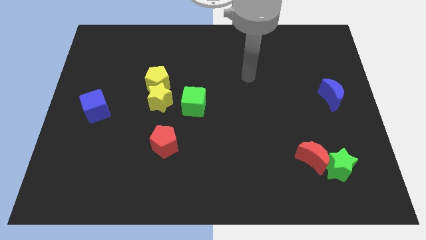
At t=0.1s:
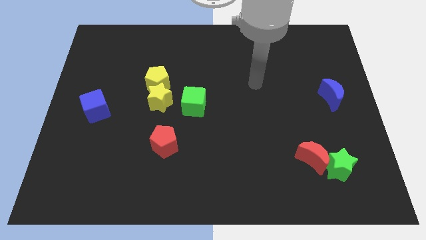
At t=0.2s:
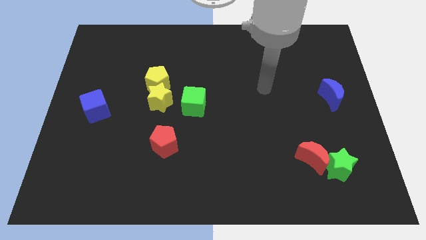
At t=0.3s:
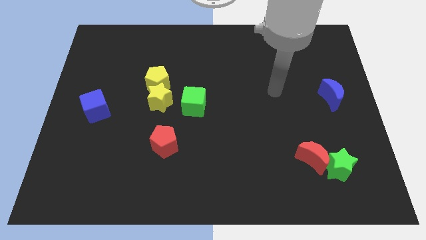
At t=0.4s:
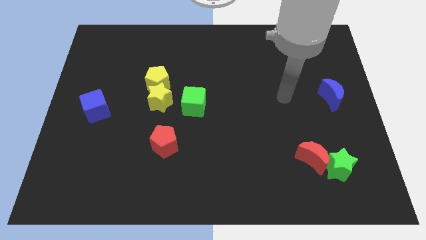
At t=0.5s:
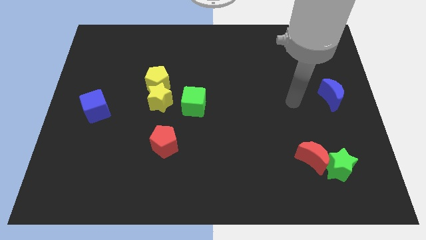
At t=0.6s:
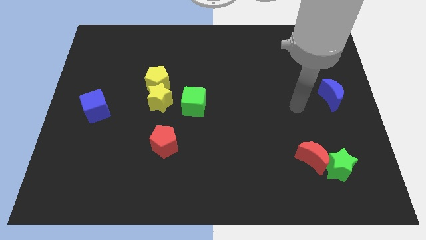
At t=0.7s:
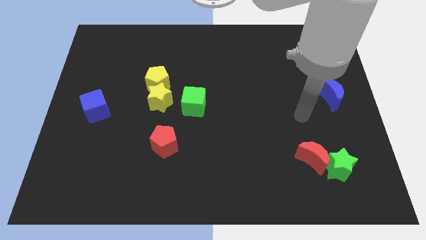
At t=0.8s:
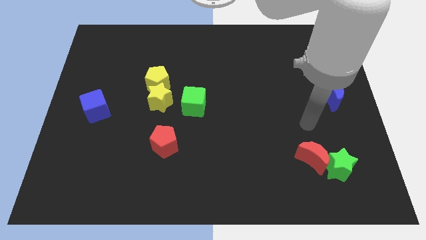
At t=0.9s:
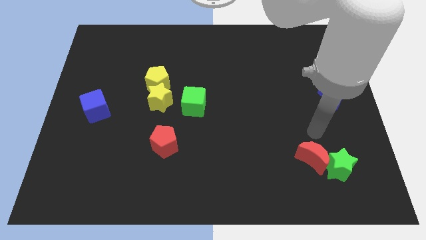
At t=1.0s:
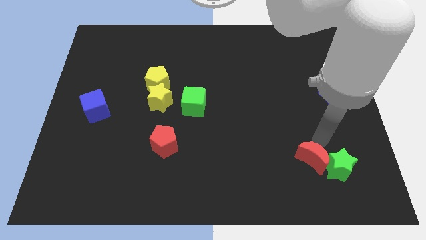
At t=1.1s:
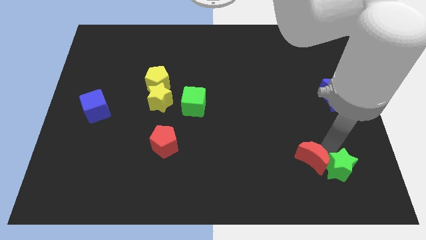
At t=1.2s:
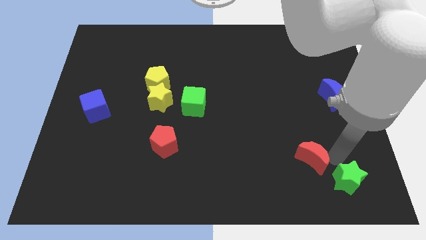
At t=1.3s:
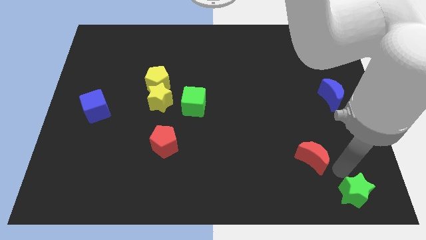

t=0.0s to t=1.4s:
pull the red moon apart from the green star

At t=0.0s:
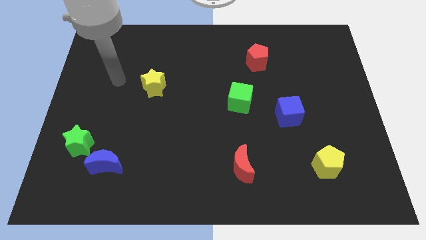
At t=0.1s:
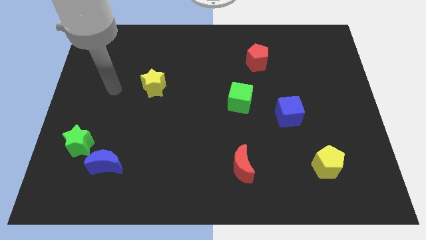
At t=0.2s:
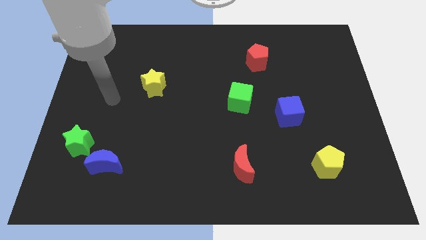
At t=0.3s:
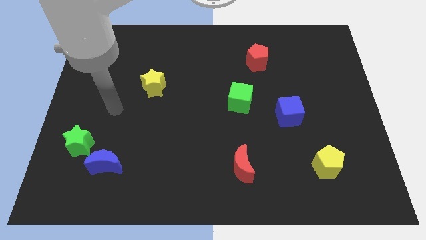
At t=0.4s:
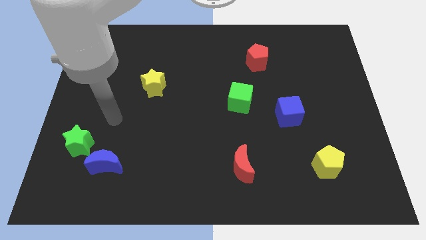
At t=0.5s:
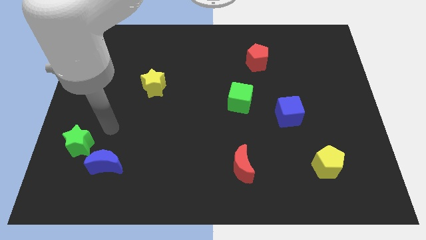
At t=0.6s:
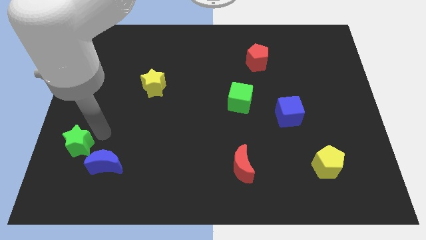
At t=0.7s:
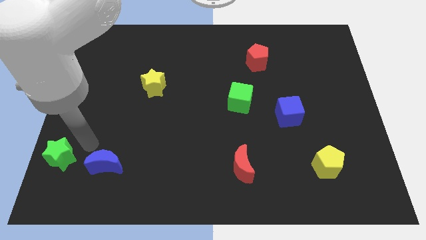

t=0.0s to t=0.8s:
separate the blue moon from the green star

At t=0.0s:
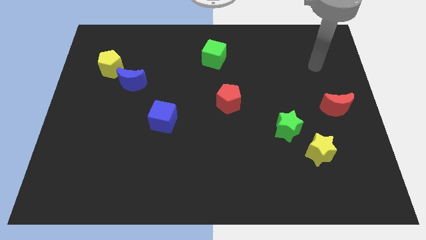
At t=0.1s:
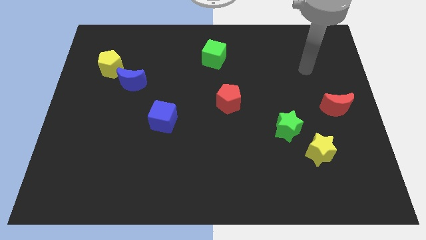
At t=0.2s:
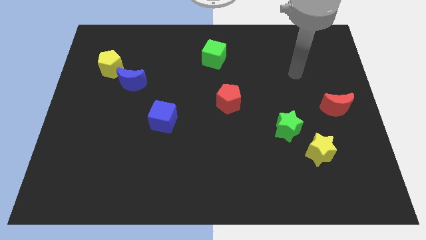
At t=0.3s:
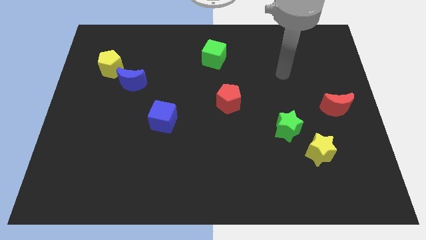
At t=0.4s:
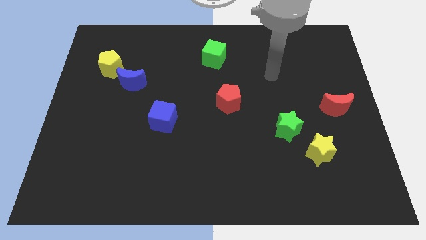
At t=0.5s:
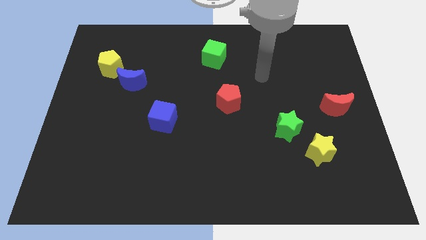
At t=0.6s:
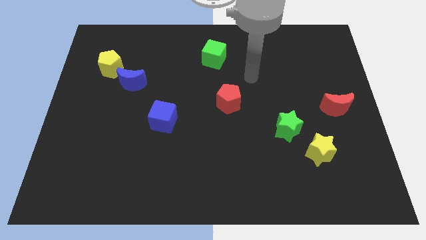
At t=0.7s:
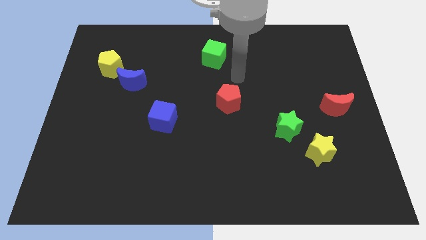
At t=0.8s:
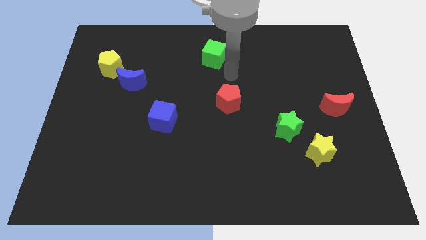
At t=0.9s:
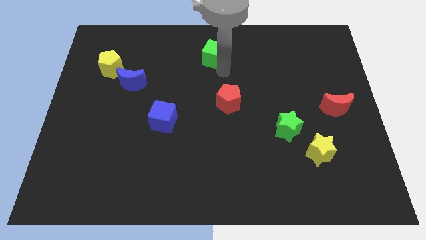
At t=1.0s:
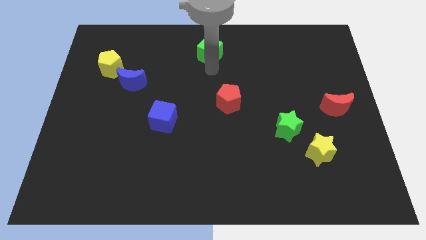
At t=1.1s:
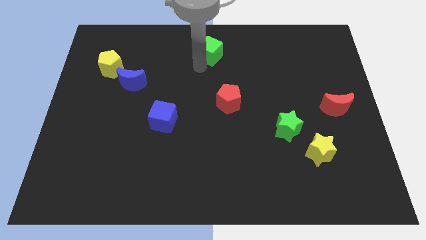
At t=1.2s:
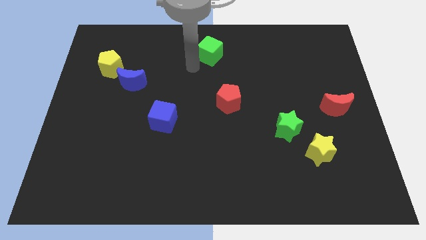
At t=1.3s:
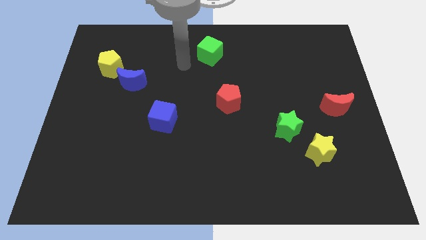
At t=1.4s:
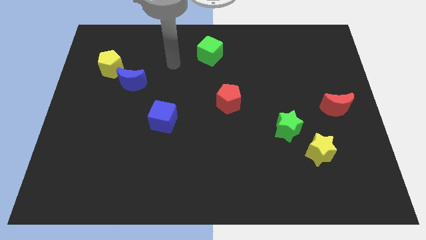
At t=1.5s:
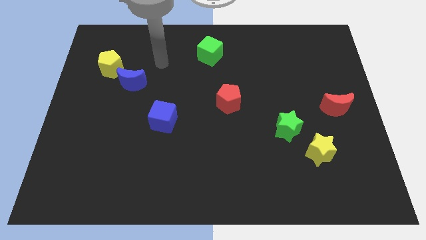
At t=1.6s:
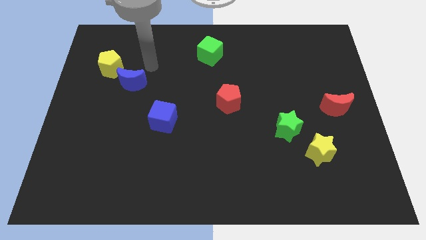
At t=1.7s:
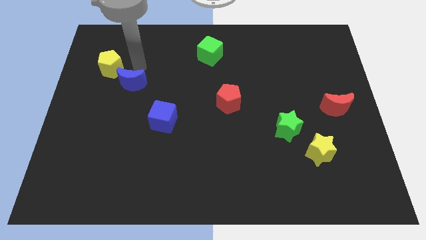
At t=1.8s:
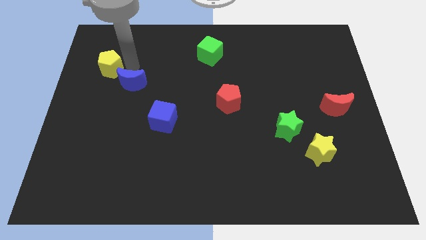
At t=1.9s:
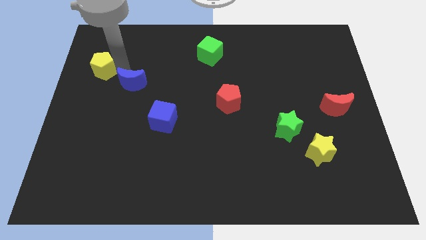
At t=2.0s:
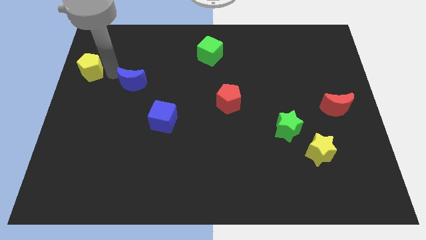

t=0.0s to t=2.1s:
pull the blue moon apart from the yellow pentagon

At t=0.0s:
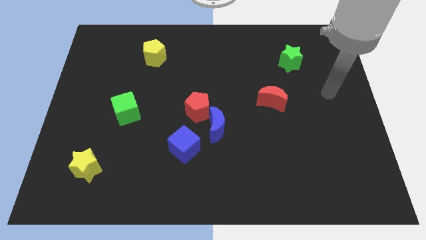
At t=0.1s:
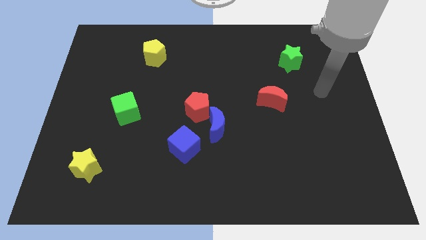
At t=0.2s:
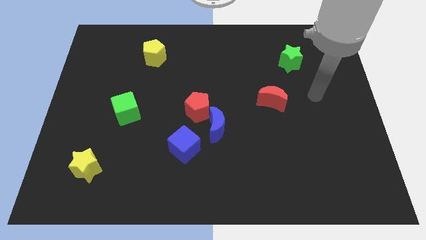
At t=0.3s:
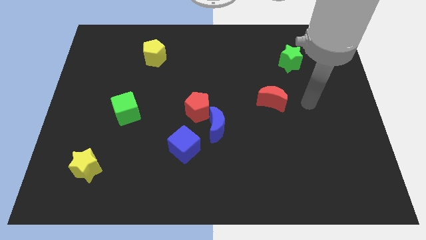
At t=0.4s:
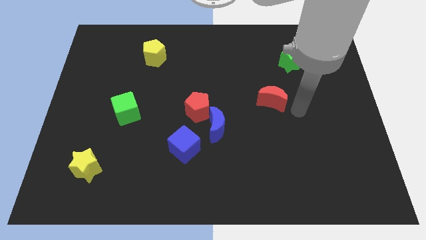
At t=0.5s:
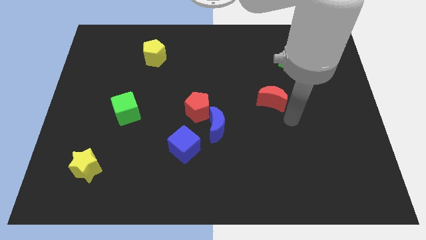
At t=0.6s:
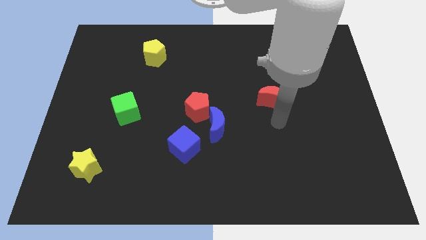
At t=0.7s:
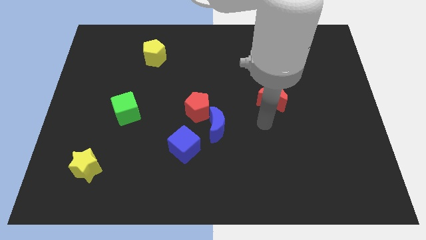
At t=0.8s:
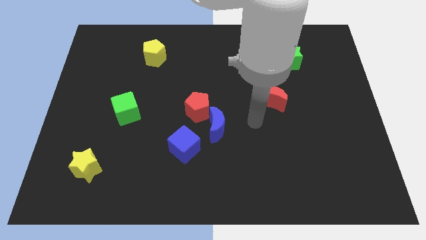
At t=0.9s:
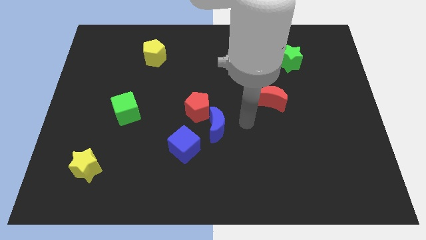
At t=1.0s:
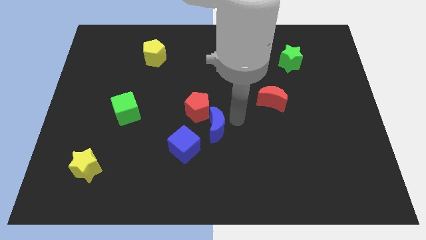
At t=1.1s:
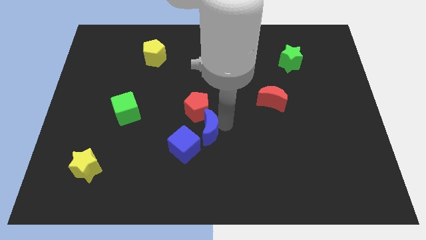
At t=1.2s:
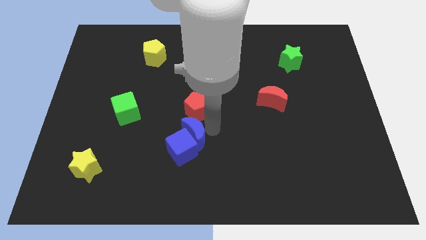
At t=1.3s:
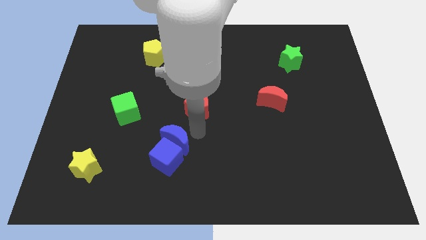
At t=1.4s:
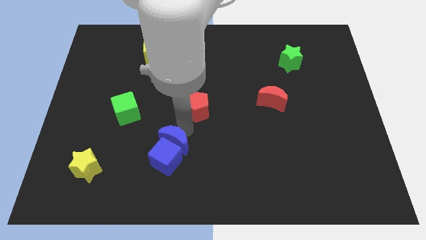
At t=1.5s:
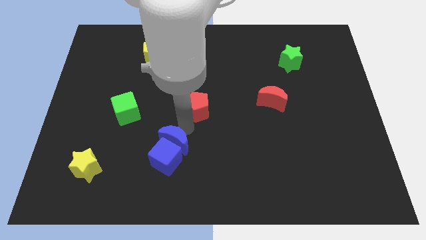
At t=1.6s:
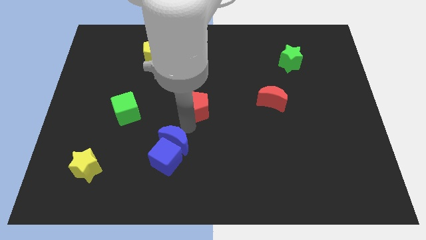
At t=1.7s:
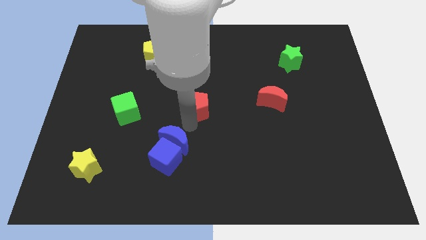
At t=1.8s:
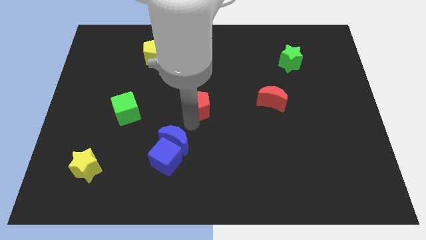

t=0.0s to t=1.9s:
pull the red pentagon apart from the blue moon

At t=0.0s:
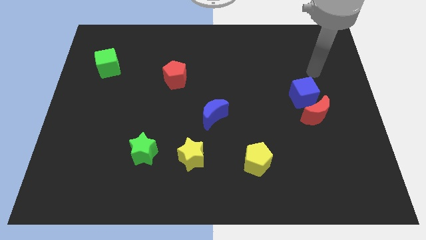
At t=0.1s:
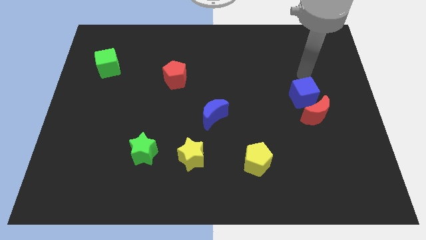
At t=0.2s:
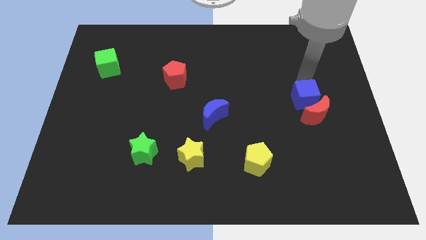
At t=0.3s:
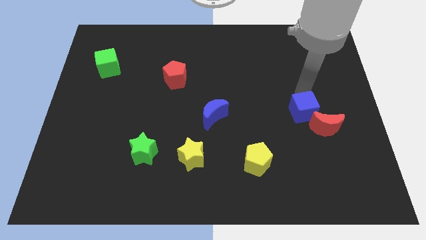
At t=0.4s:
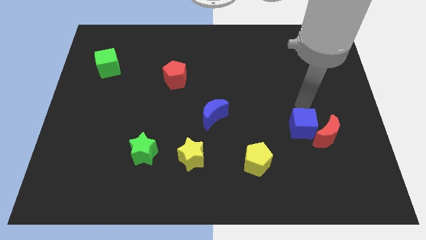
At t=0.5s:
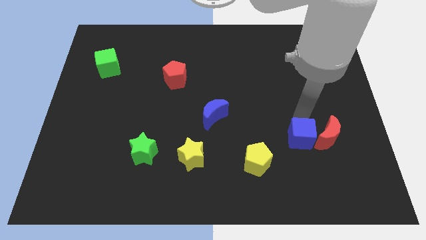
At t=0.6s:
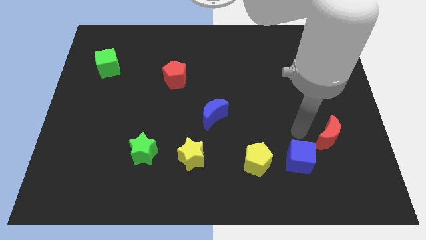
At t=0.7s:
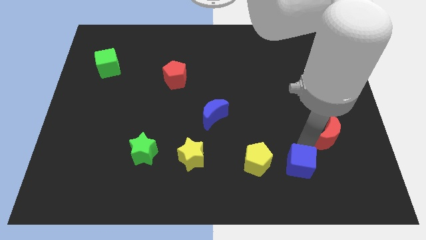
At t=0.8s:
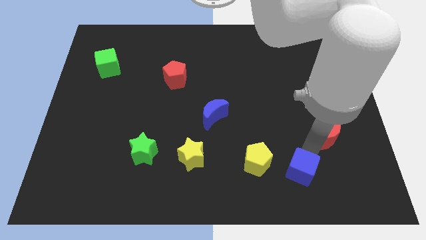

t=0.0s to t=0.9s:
separate the red moon from the blue cube

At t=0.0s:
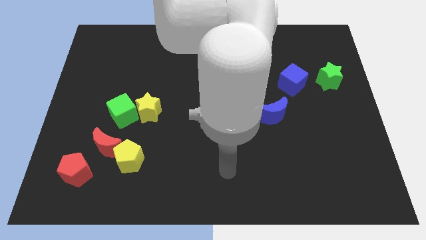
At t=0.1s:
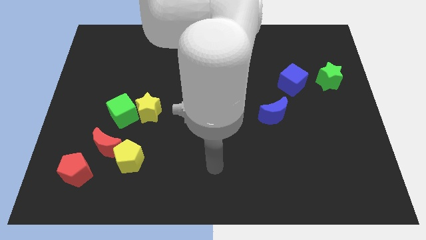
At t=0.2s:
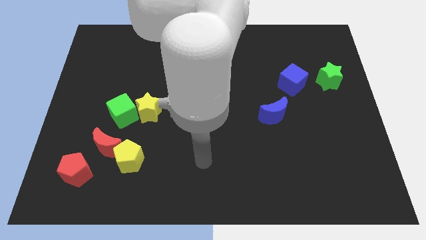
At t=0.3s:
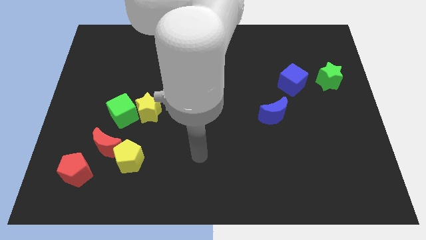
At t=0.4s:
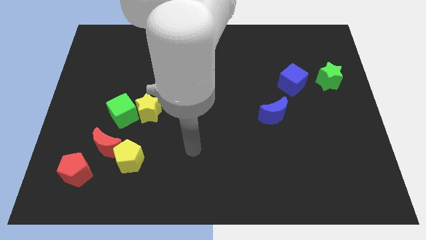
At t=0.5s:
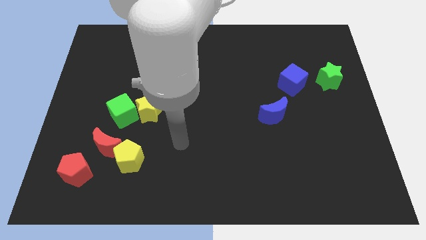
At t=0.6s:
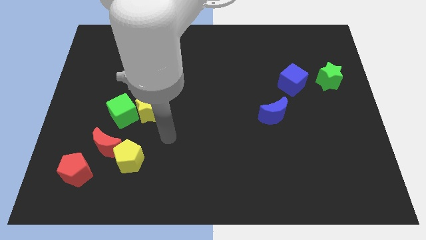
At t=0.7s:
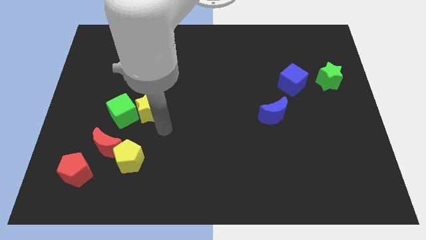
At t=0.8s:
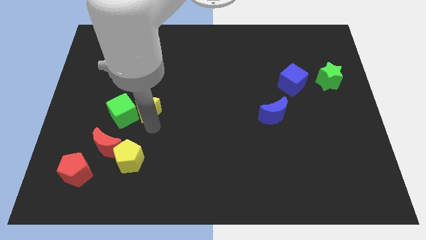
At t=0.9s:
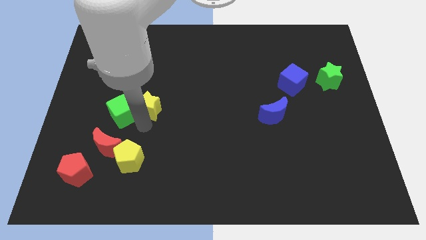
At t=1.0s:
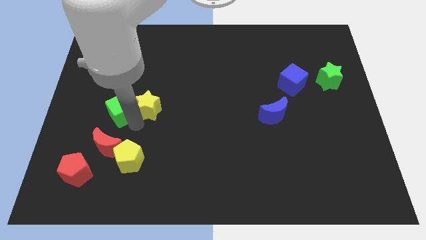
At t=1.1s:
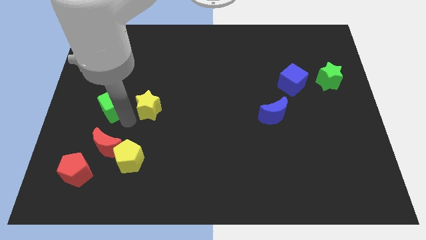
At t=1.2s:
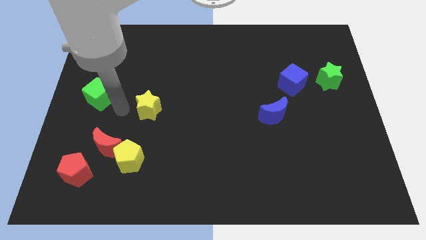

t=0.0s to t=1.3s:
move the yellow star away from the green cube

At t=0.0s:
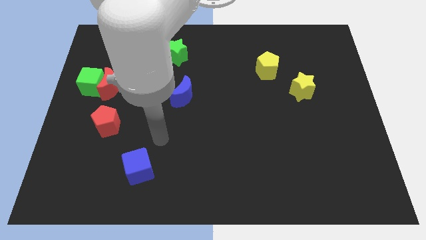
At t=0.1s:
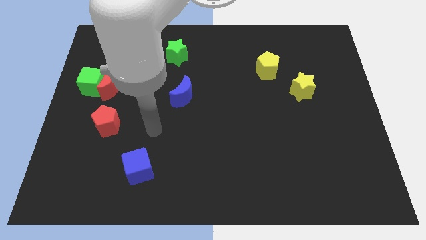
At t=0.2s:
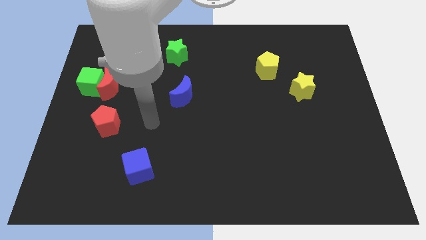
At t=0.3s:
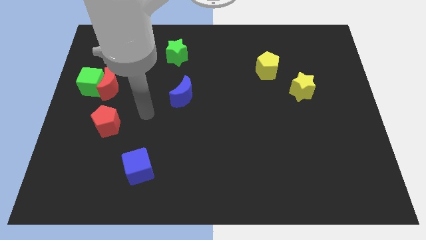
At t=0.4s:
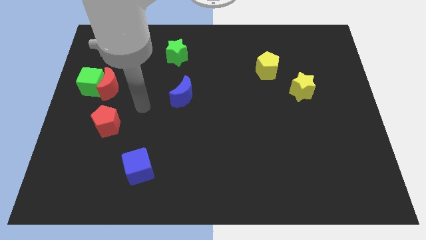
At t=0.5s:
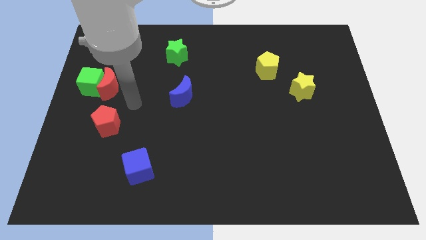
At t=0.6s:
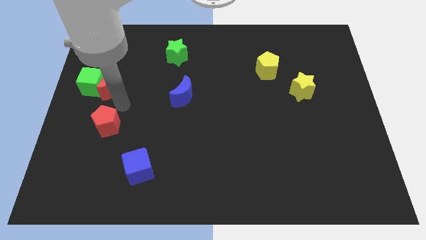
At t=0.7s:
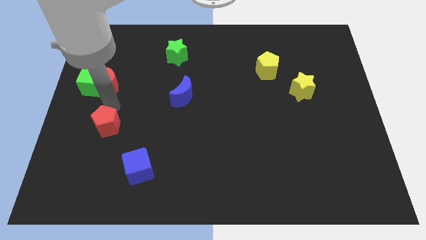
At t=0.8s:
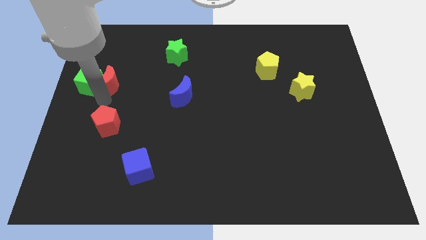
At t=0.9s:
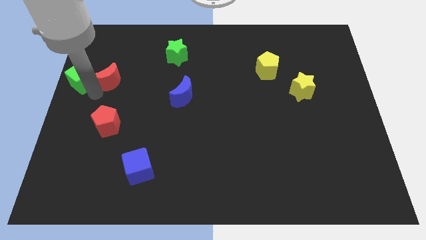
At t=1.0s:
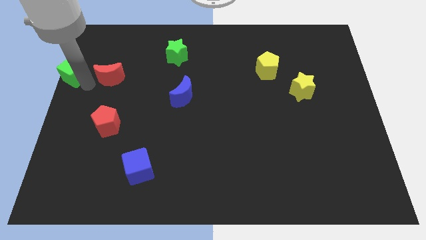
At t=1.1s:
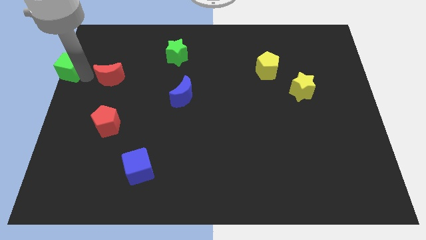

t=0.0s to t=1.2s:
move the red moon away from the green cube
